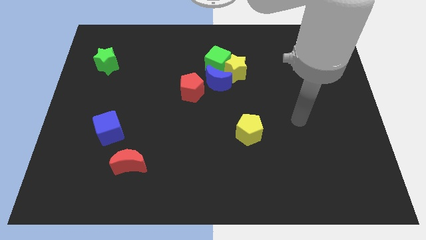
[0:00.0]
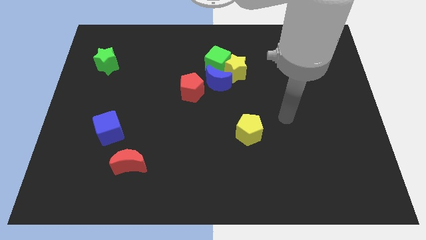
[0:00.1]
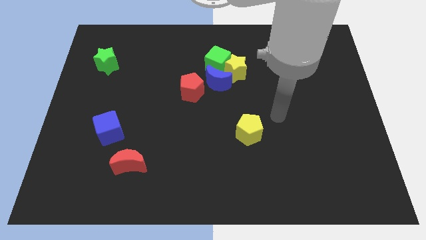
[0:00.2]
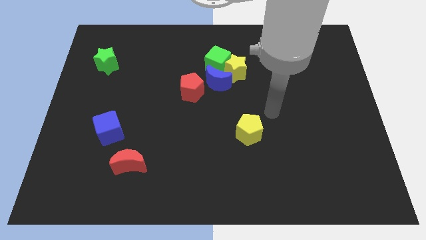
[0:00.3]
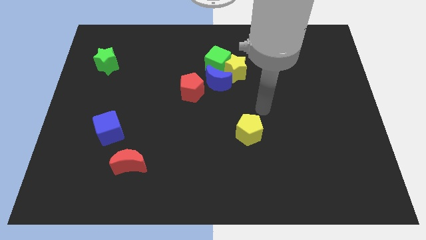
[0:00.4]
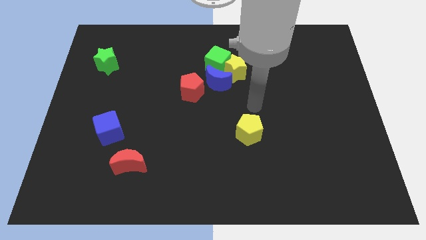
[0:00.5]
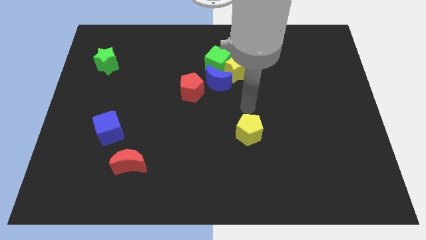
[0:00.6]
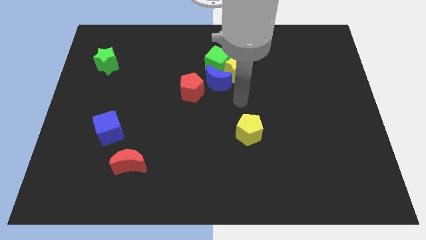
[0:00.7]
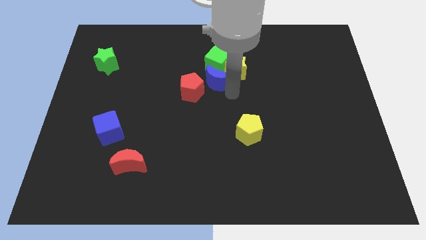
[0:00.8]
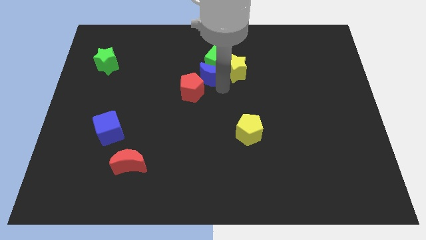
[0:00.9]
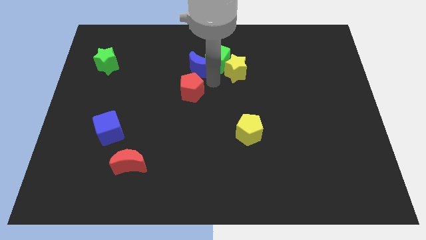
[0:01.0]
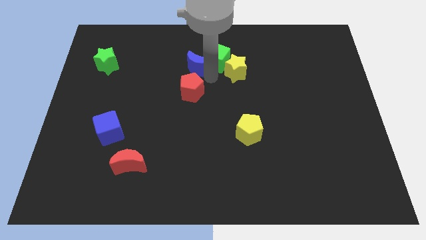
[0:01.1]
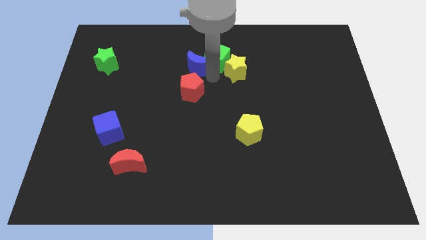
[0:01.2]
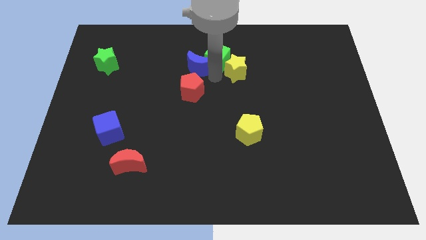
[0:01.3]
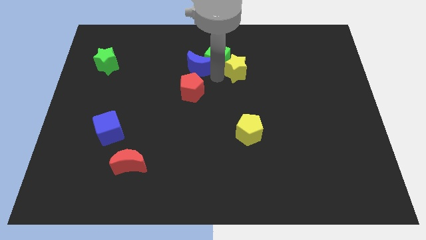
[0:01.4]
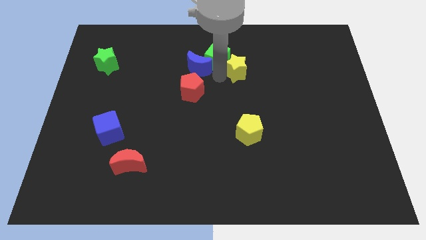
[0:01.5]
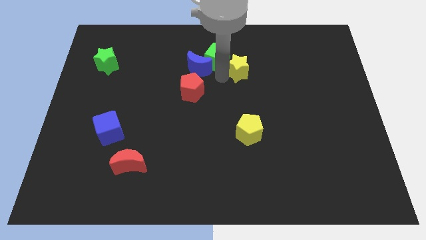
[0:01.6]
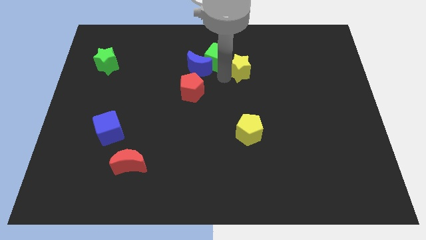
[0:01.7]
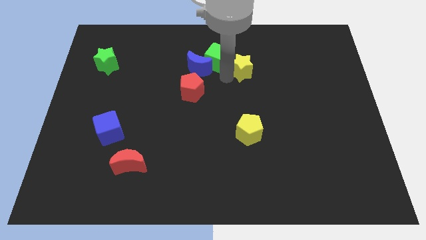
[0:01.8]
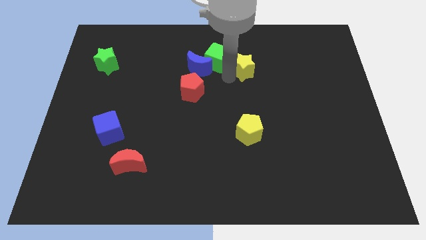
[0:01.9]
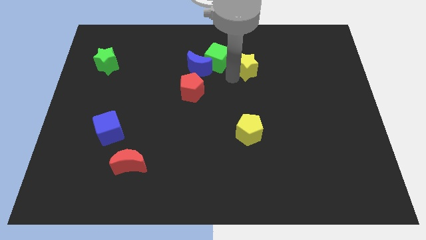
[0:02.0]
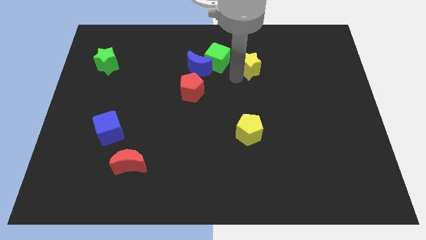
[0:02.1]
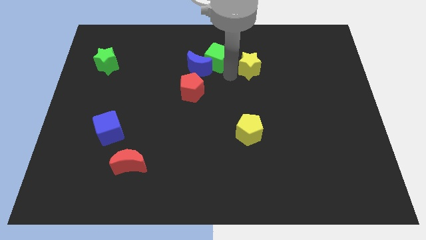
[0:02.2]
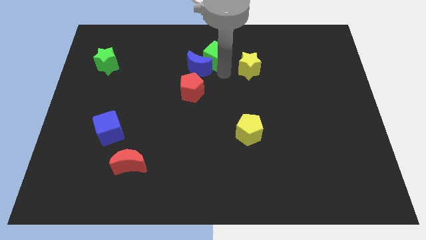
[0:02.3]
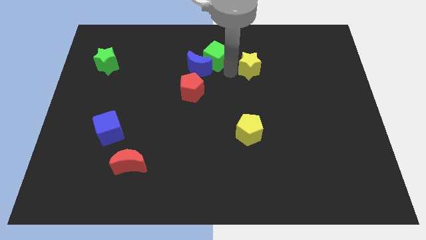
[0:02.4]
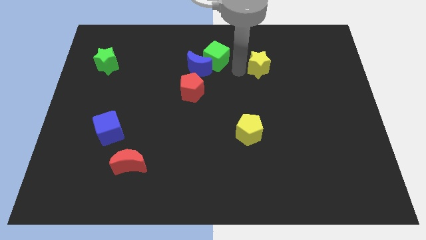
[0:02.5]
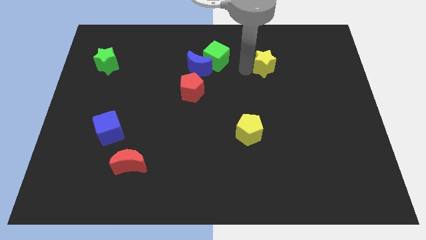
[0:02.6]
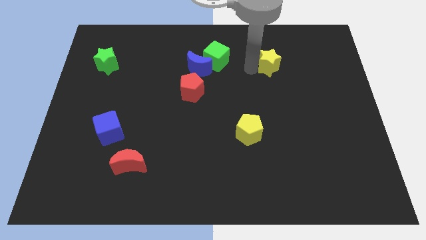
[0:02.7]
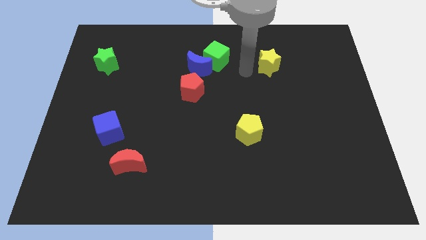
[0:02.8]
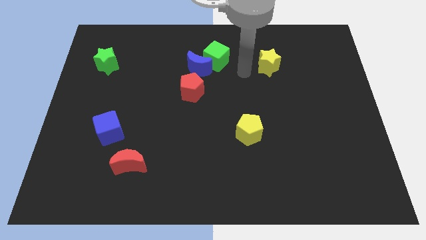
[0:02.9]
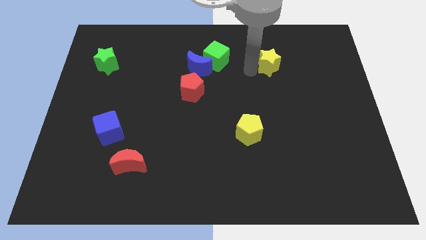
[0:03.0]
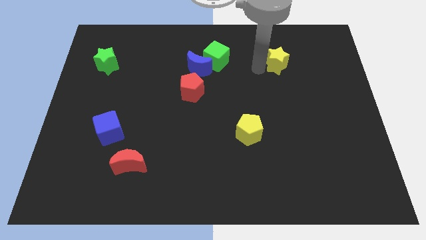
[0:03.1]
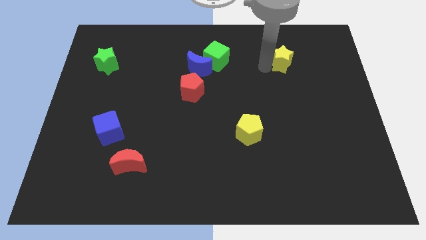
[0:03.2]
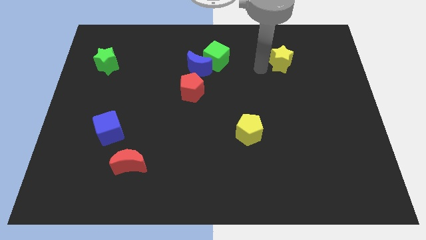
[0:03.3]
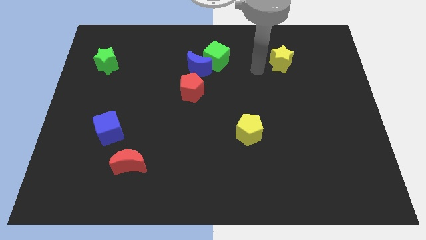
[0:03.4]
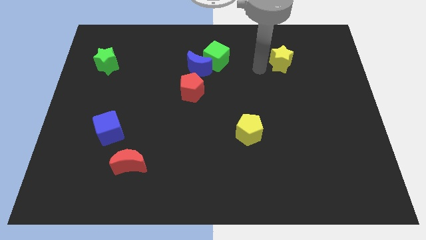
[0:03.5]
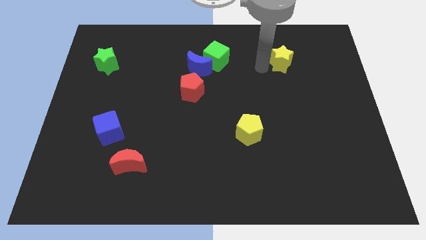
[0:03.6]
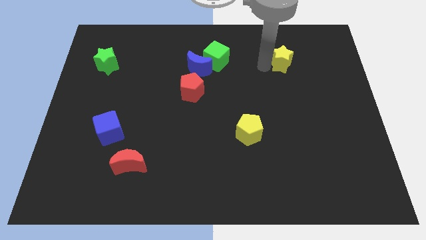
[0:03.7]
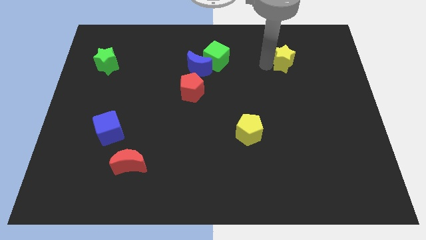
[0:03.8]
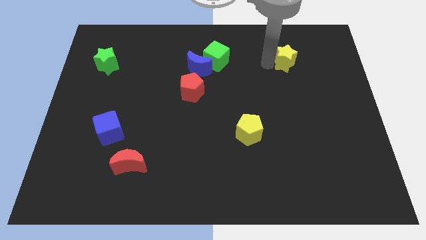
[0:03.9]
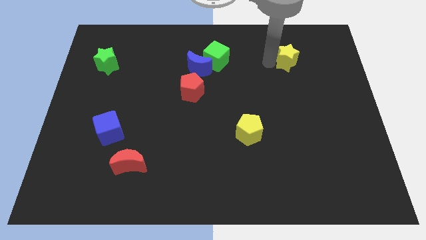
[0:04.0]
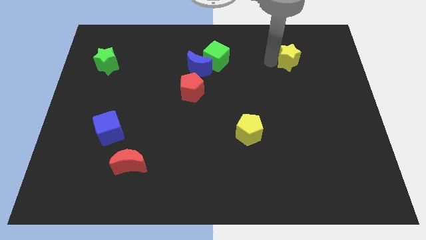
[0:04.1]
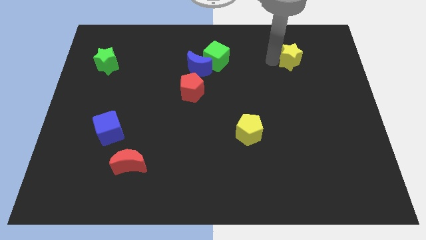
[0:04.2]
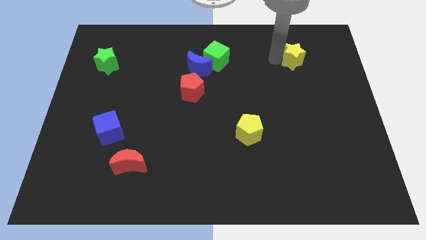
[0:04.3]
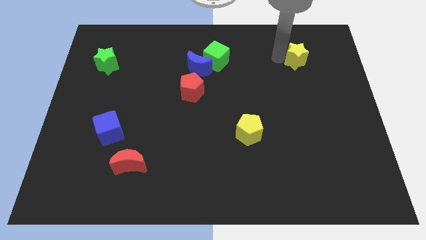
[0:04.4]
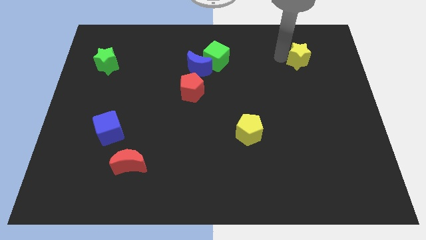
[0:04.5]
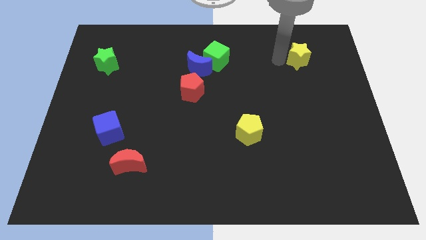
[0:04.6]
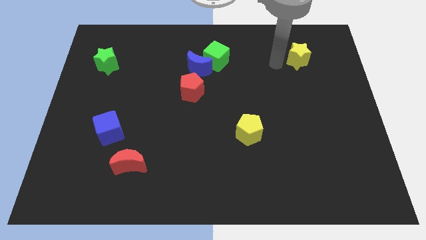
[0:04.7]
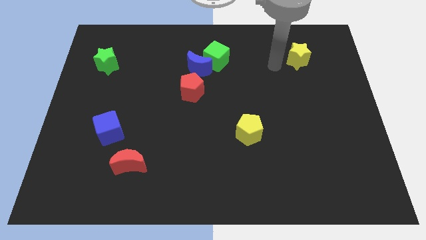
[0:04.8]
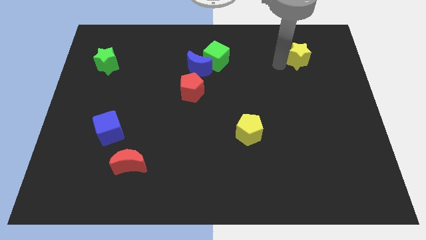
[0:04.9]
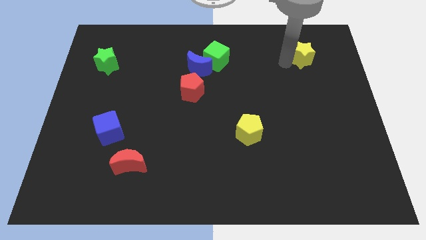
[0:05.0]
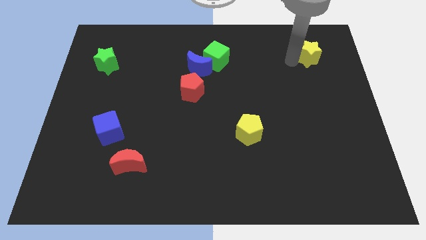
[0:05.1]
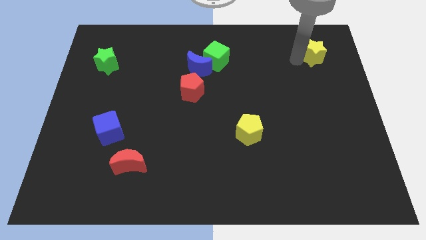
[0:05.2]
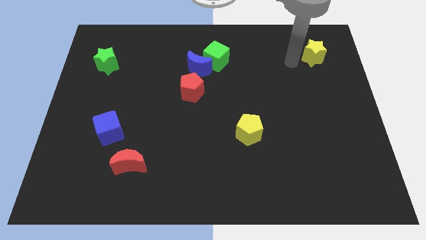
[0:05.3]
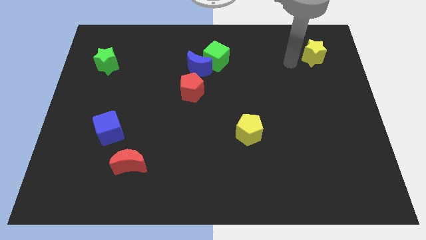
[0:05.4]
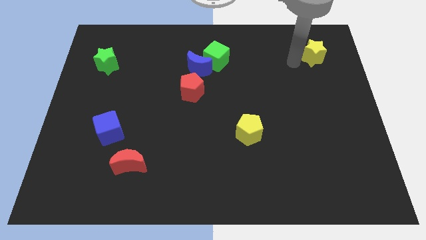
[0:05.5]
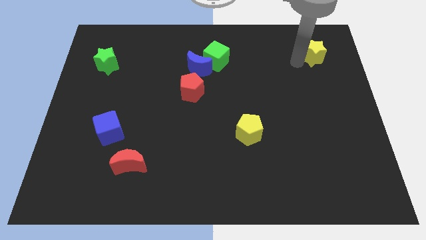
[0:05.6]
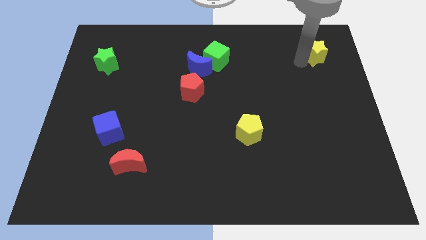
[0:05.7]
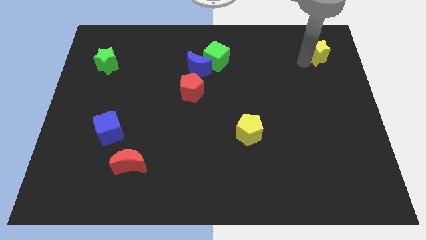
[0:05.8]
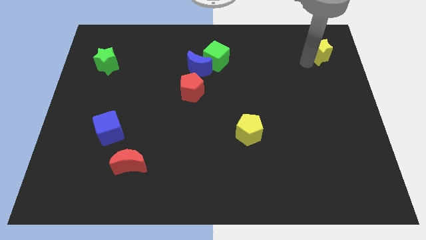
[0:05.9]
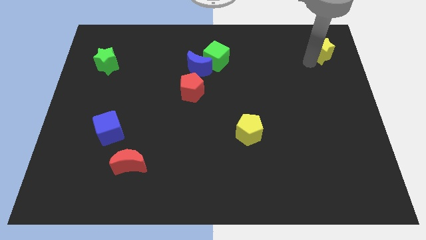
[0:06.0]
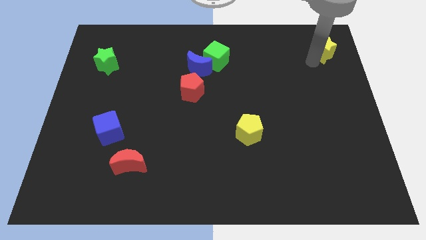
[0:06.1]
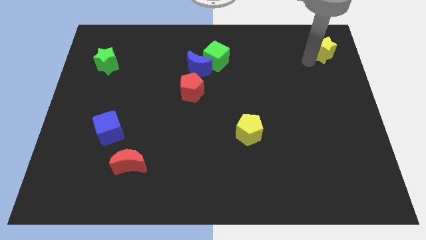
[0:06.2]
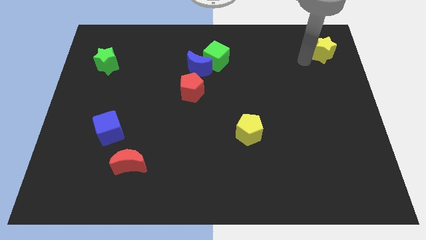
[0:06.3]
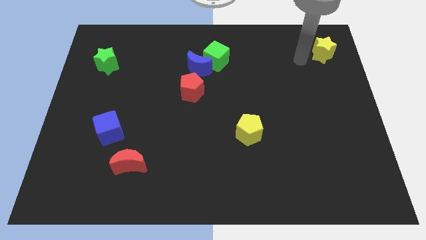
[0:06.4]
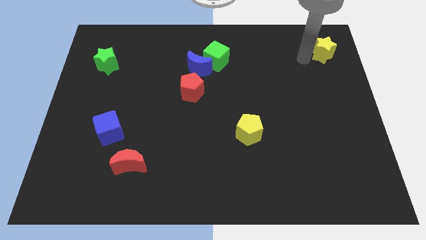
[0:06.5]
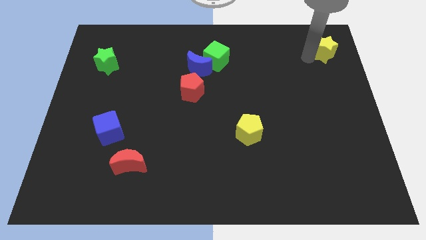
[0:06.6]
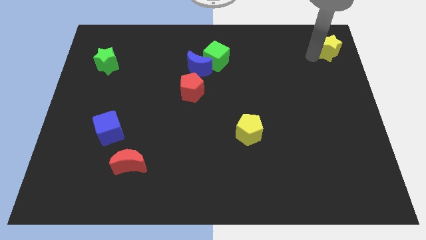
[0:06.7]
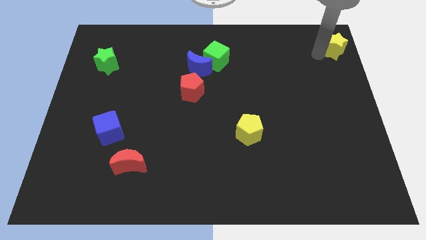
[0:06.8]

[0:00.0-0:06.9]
push the yellow star to the top right of the board
